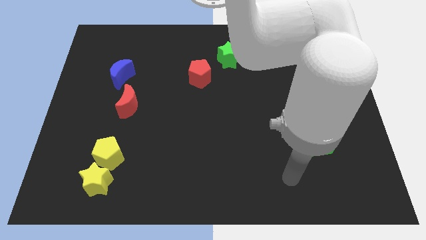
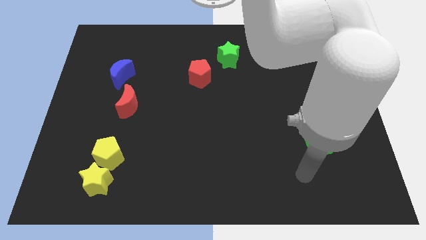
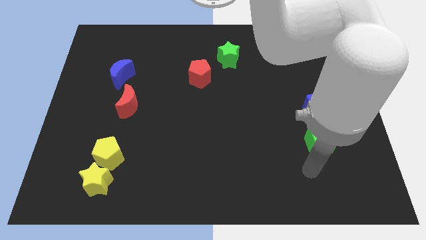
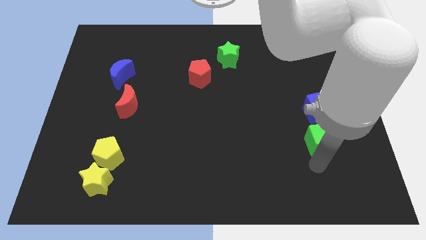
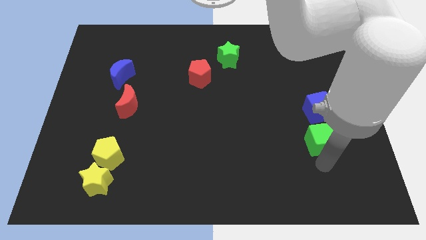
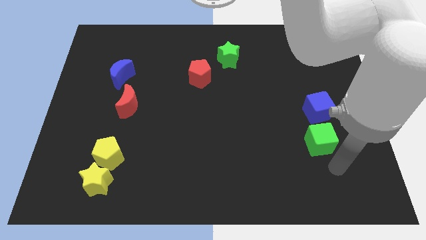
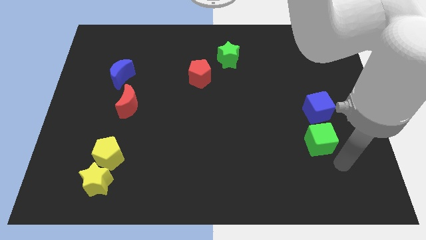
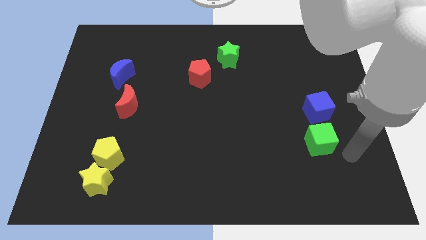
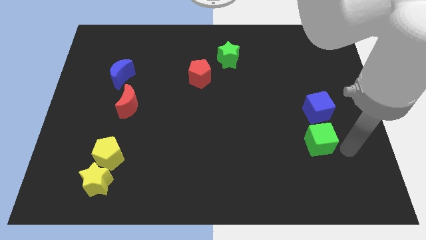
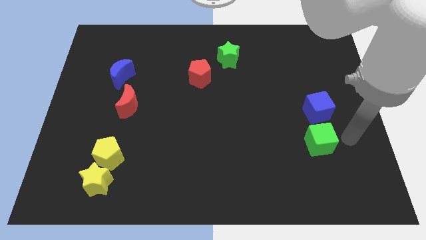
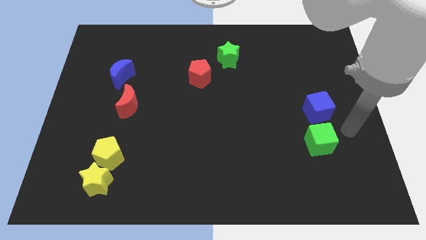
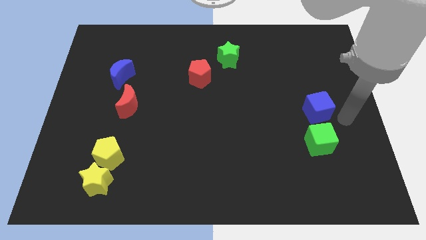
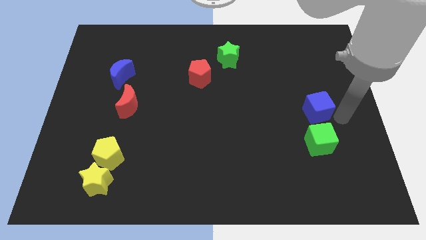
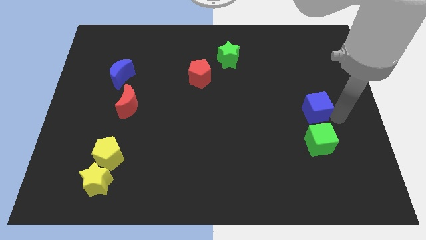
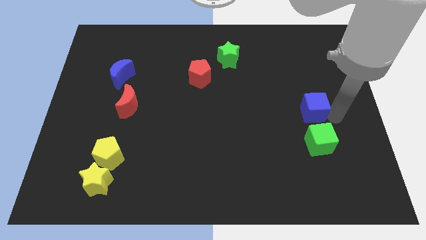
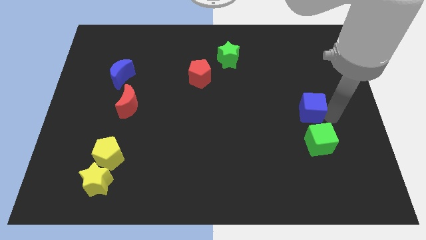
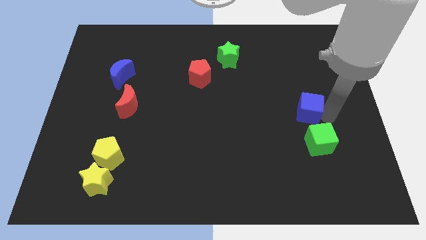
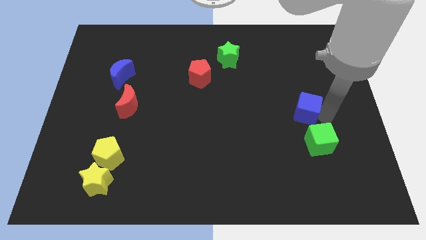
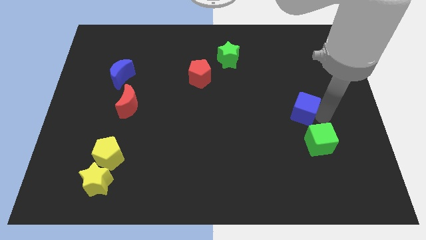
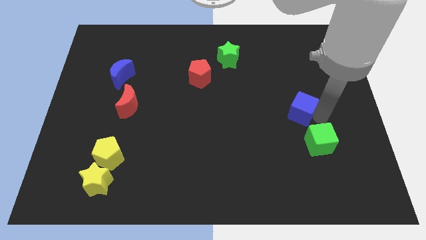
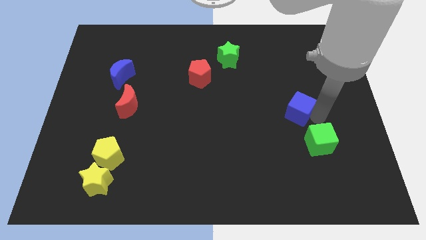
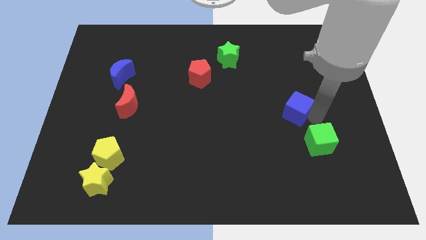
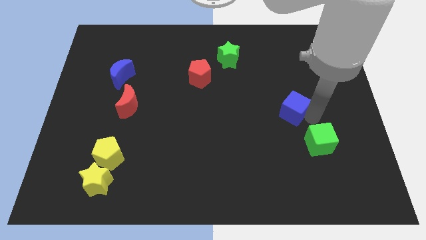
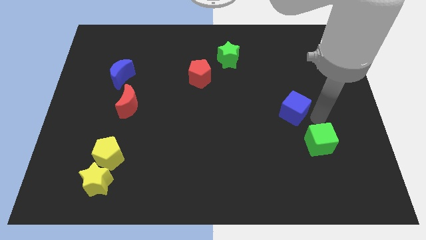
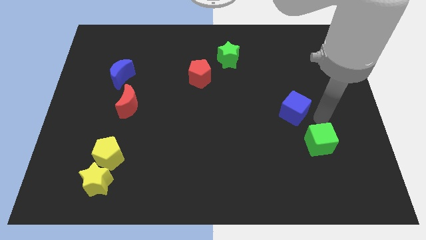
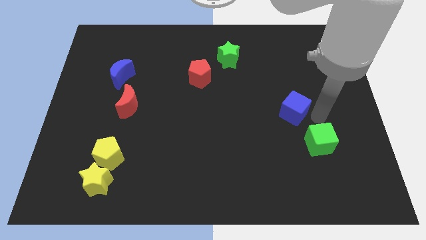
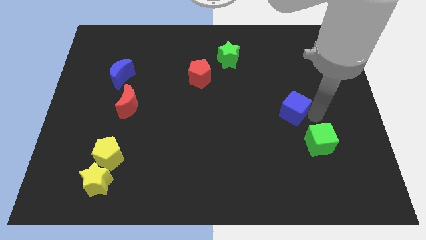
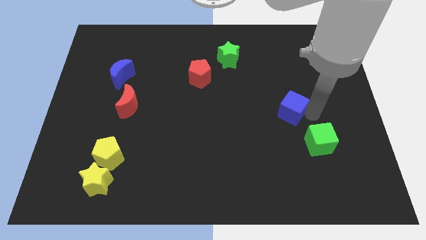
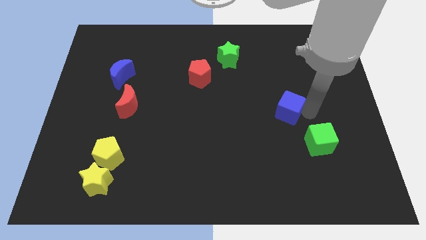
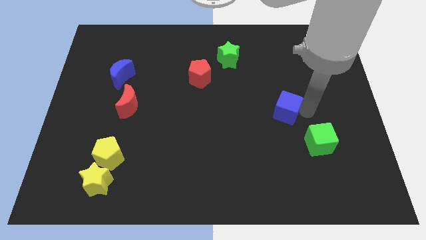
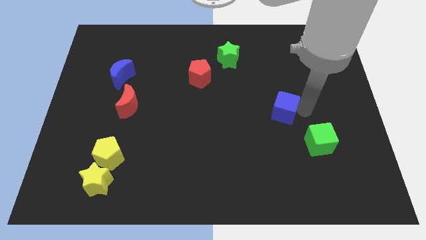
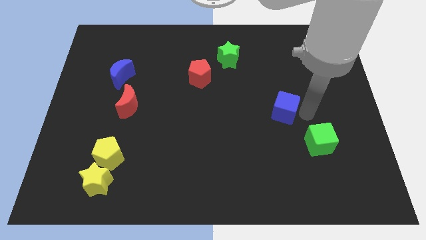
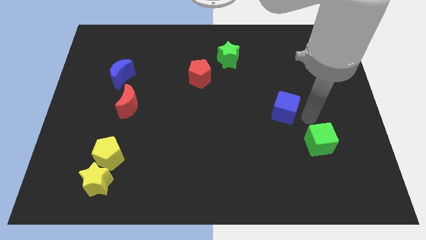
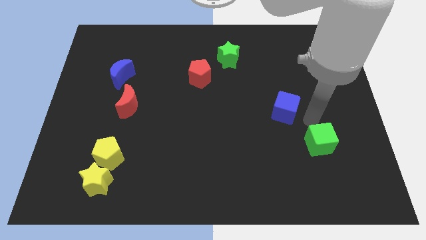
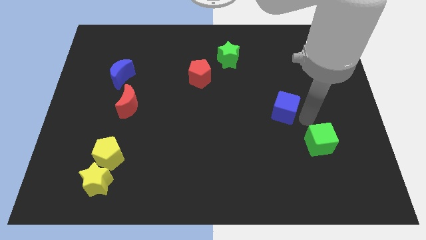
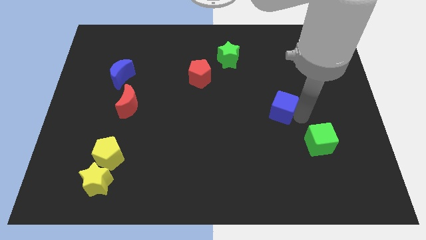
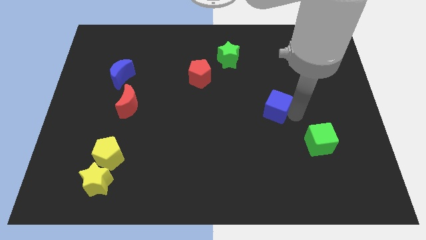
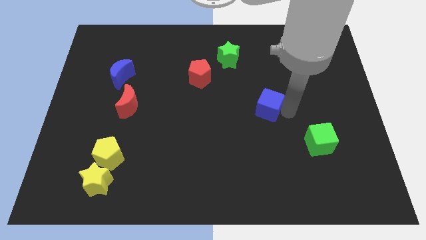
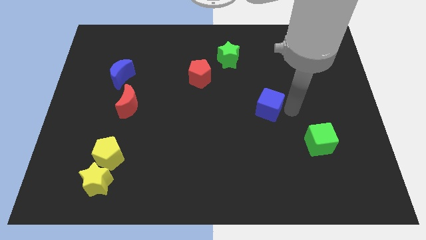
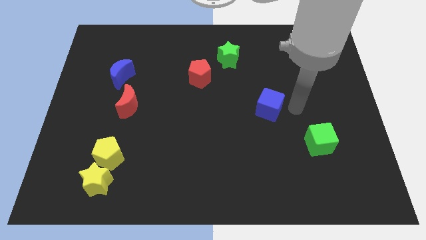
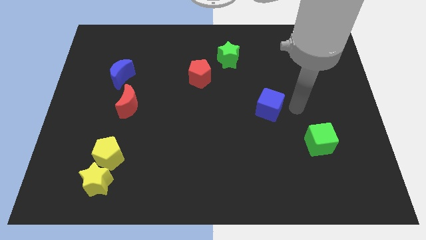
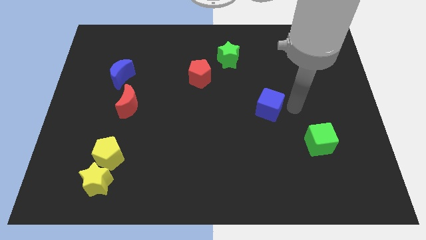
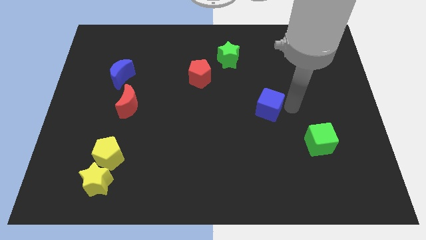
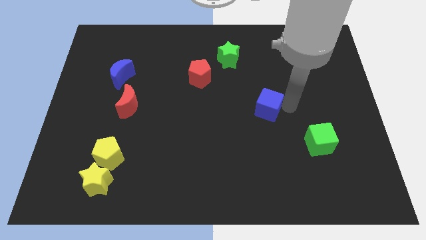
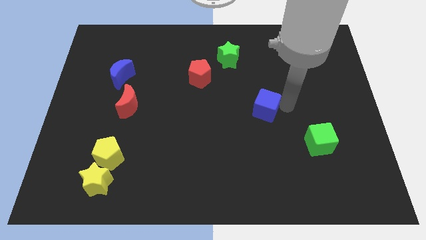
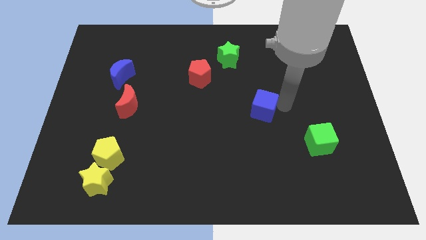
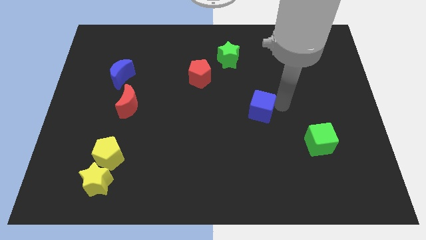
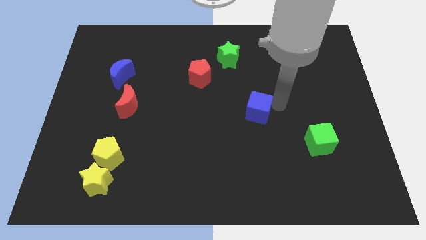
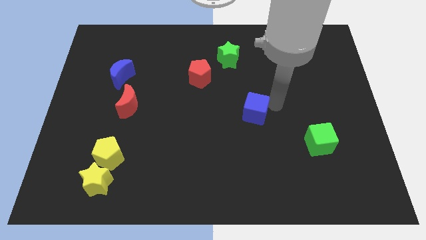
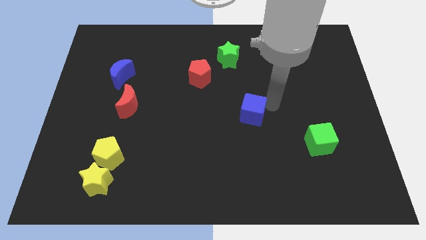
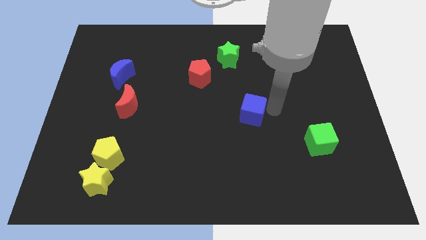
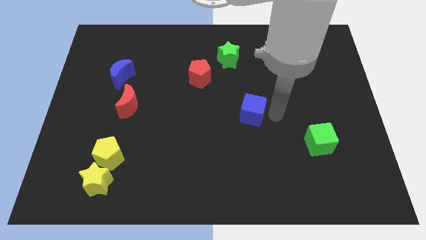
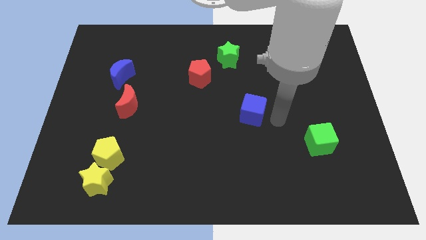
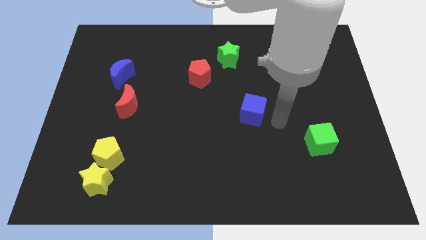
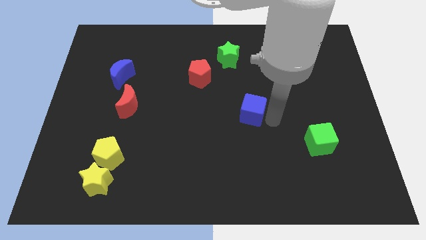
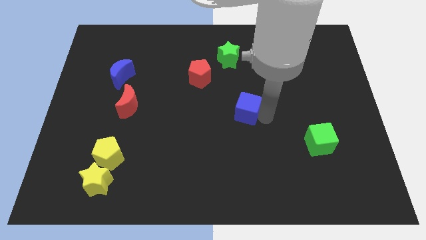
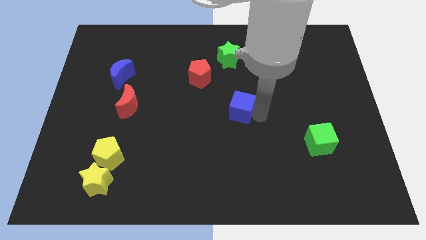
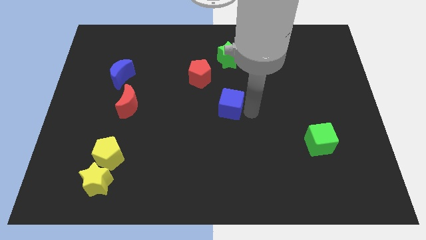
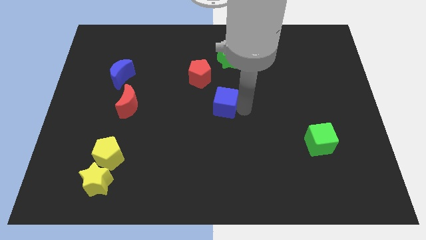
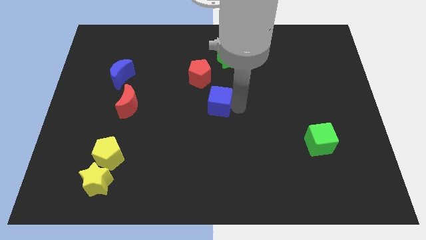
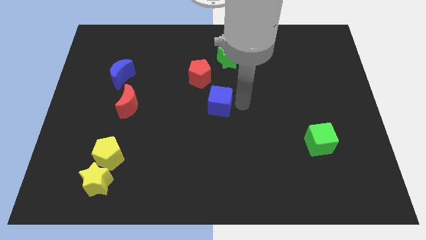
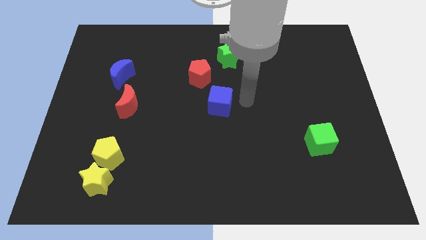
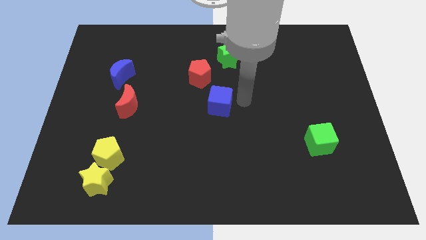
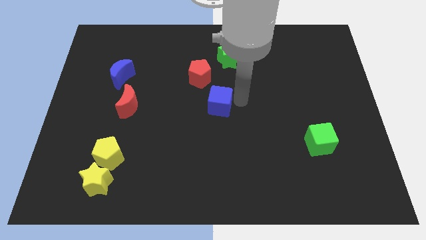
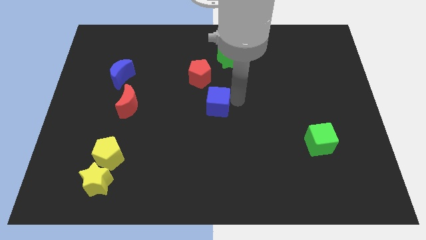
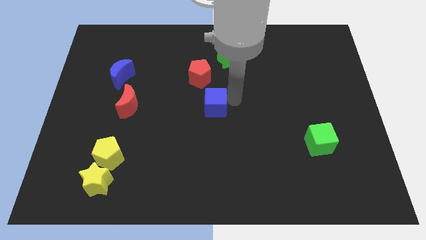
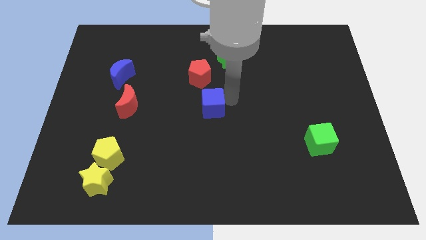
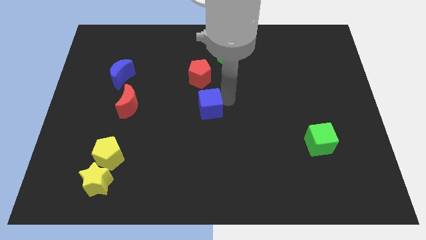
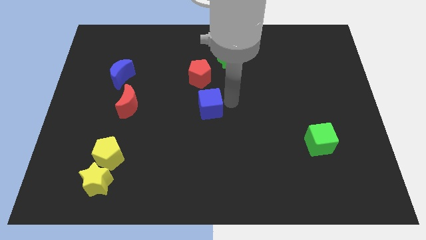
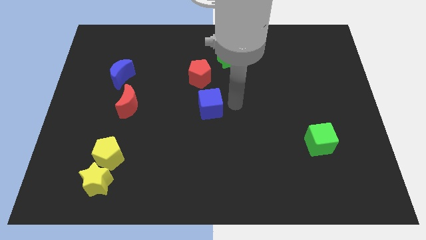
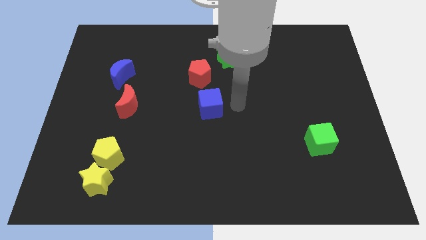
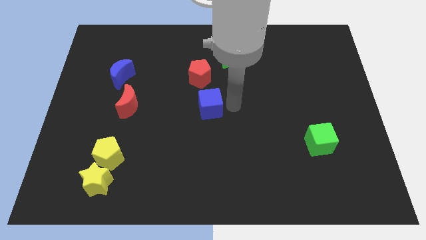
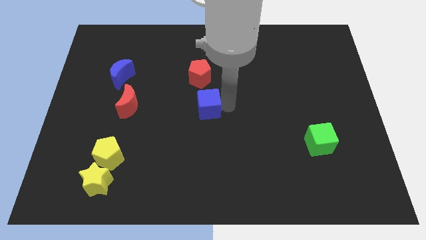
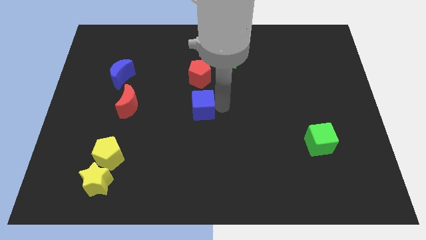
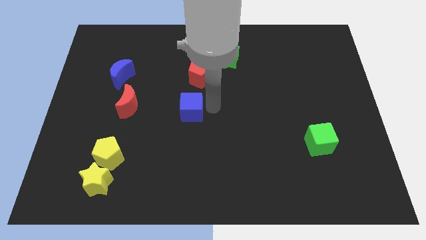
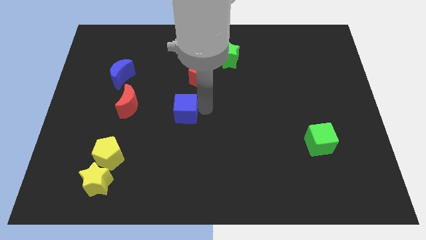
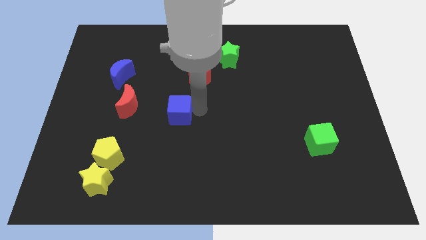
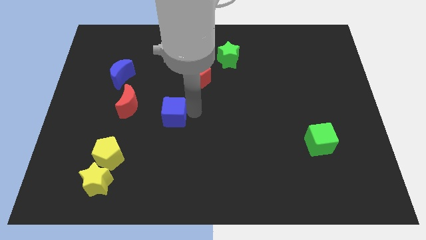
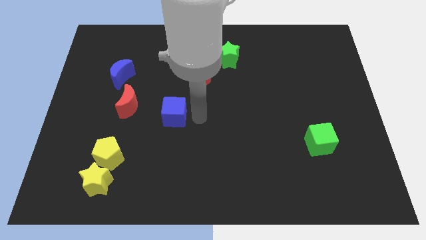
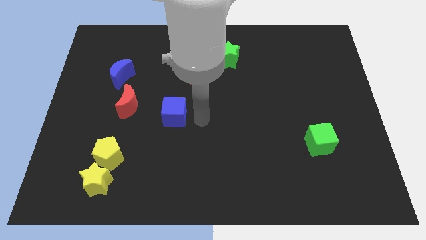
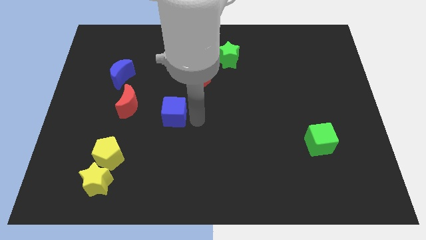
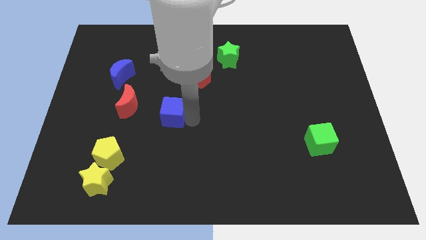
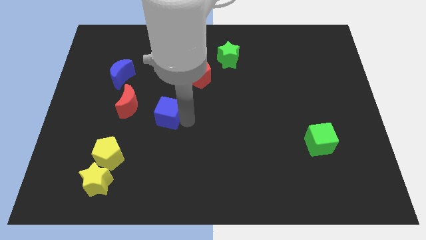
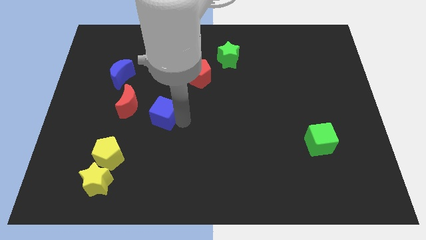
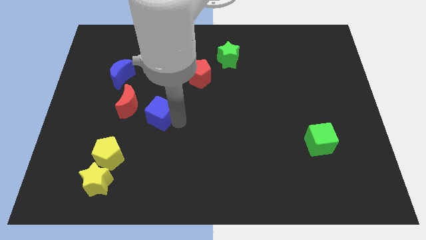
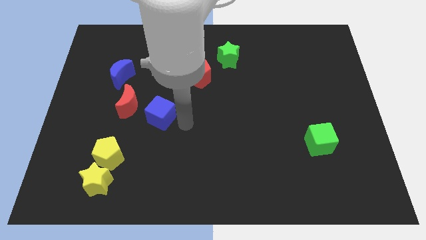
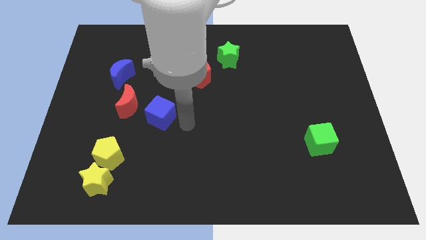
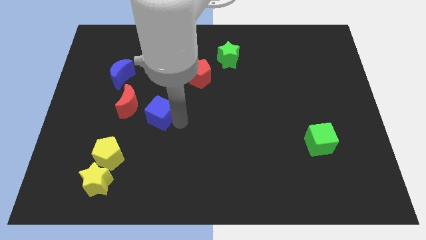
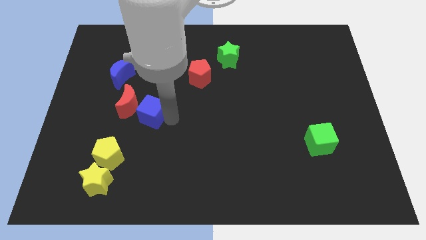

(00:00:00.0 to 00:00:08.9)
move the blue cube to the red moon
